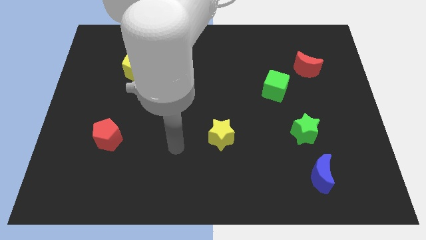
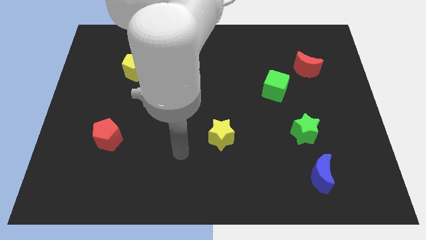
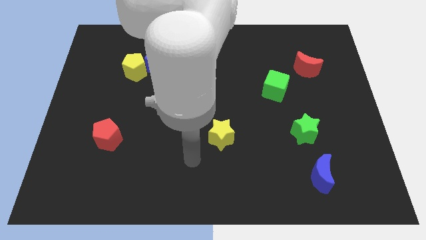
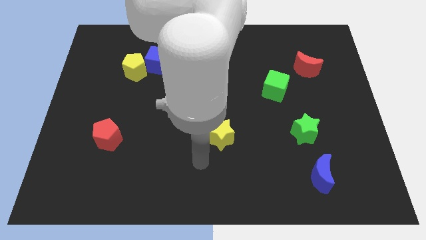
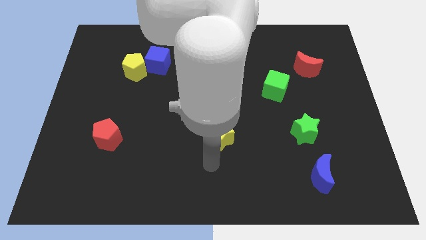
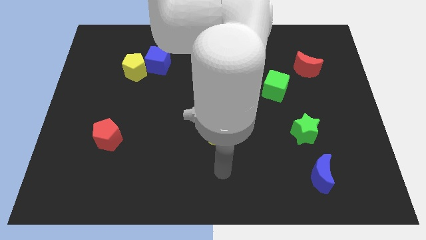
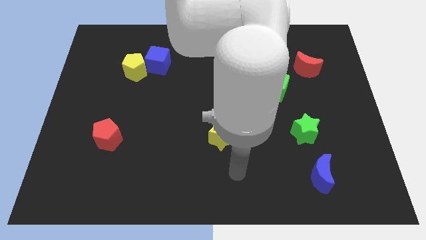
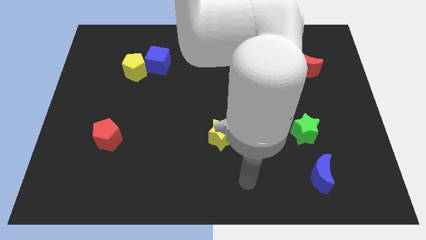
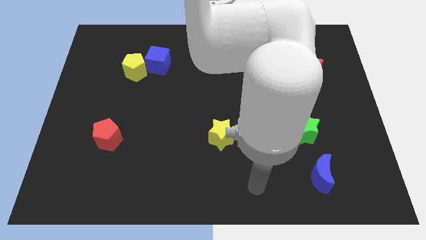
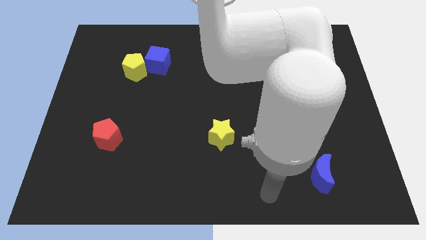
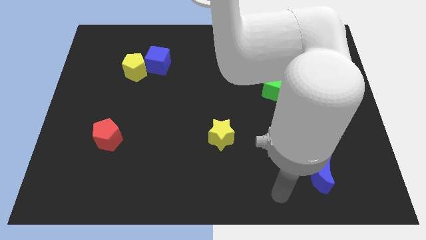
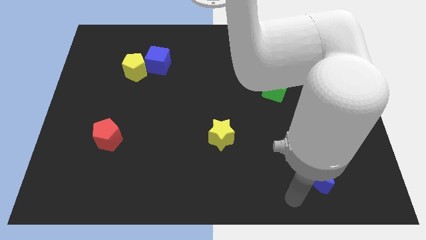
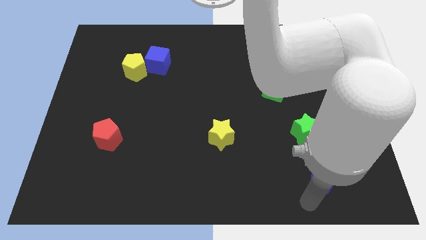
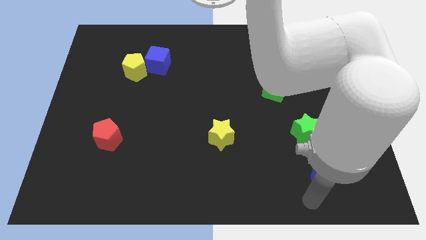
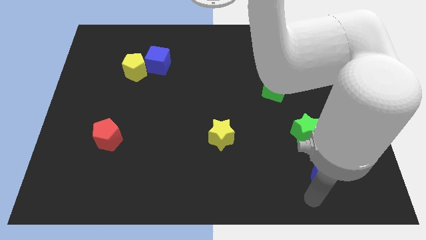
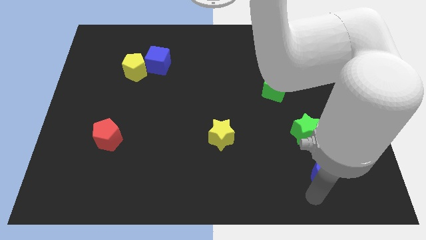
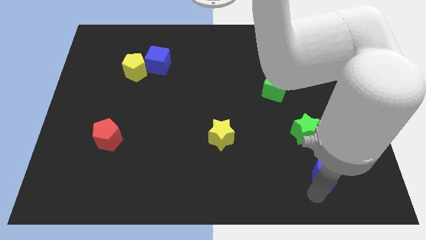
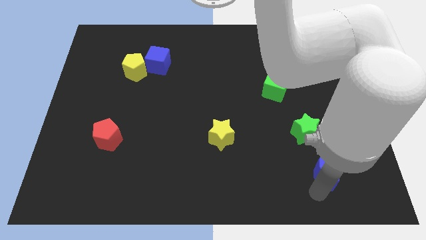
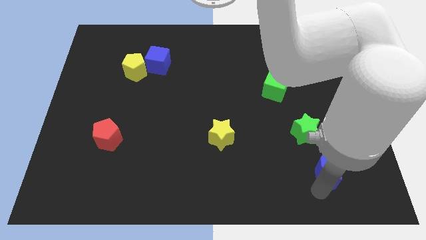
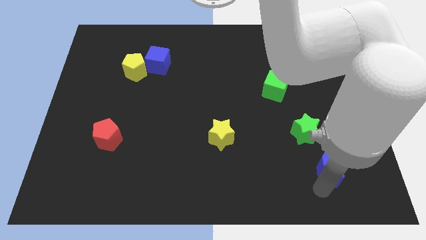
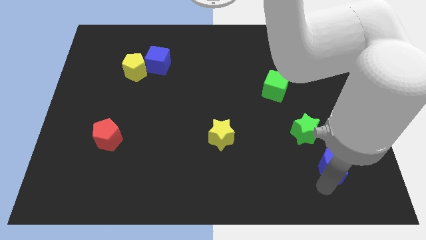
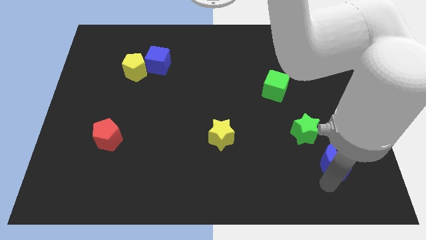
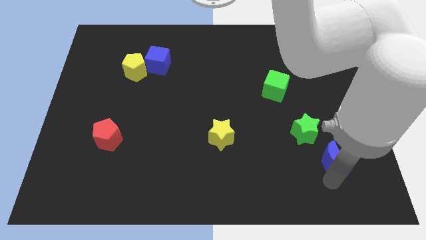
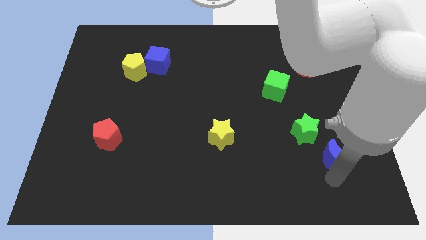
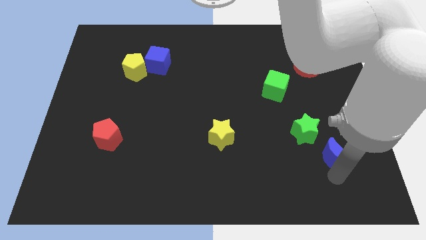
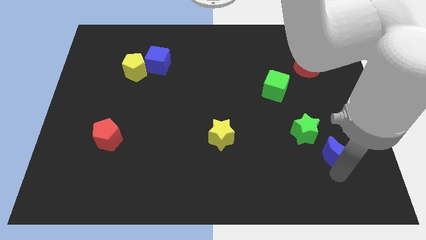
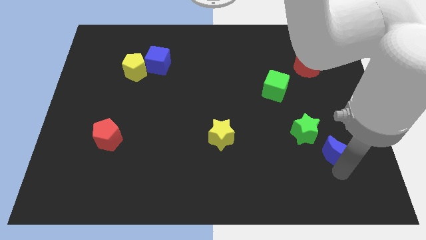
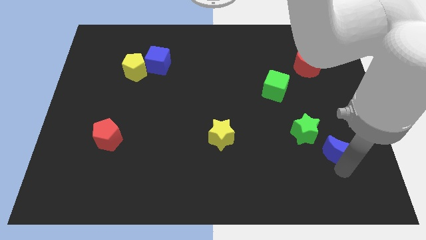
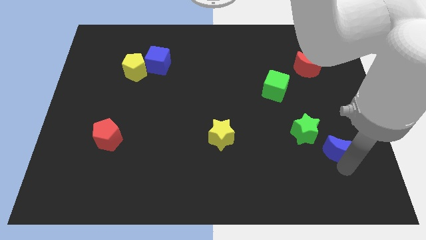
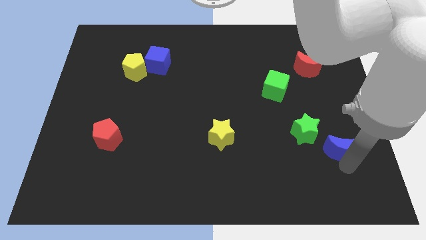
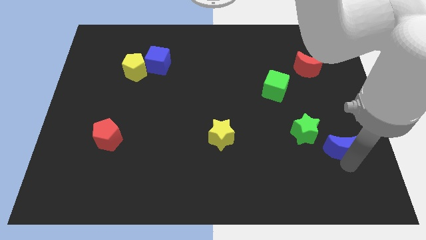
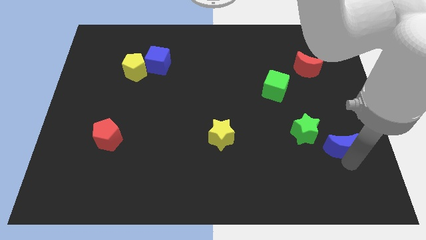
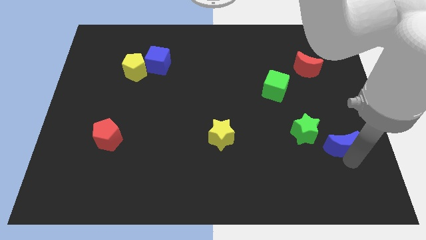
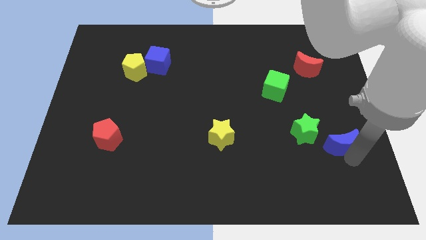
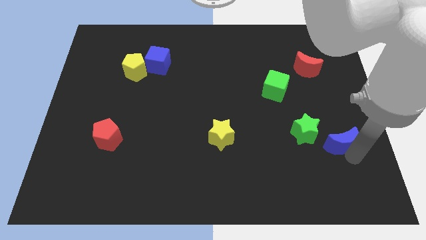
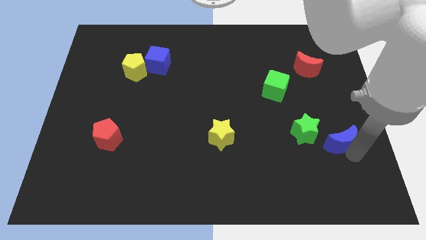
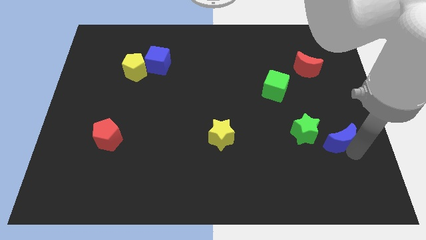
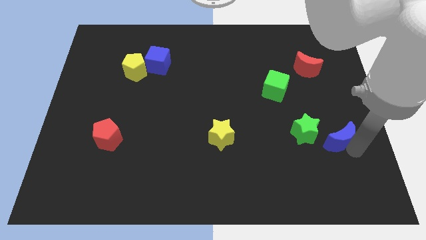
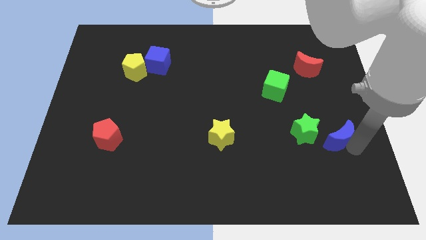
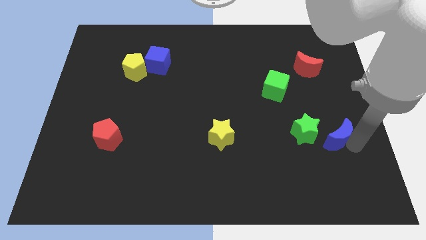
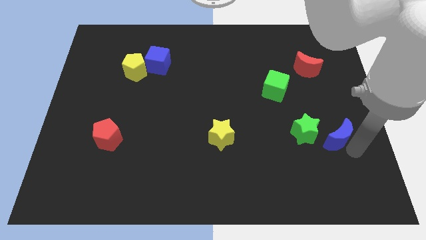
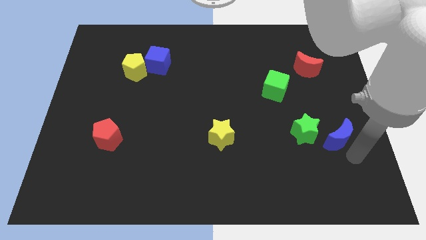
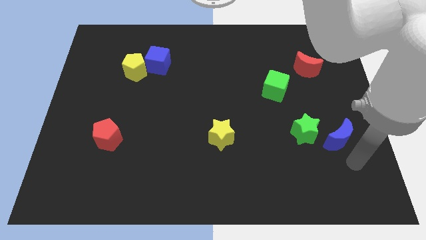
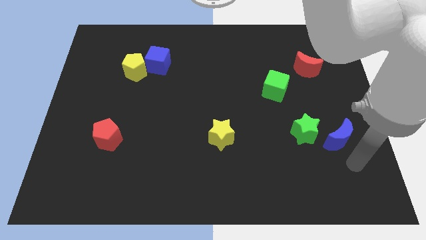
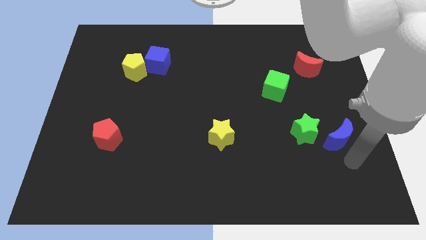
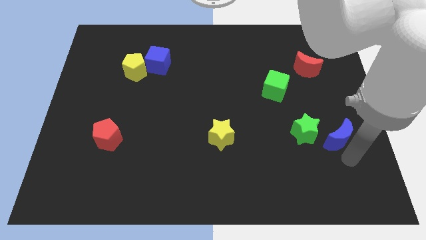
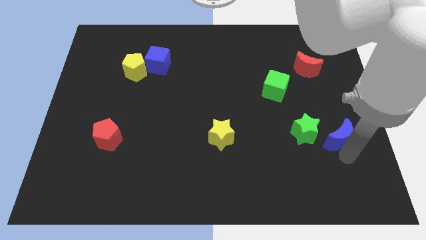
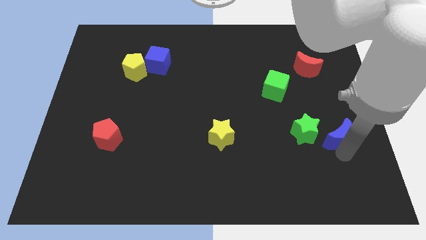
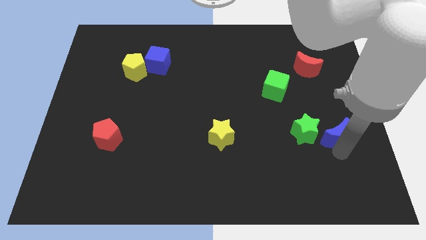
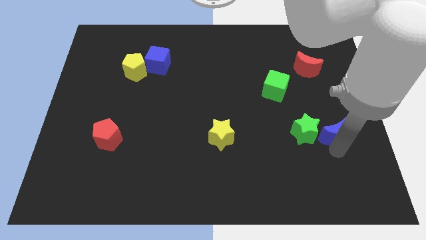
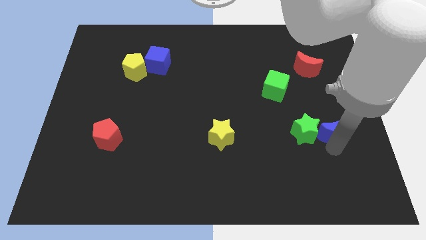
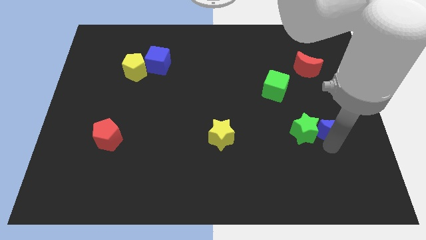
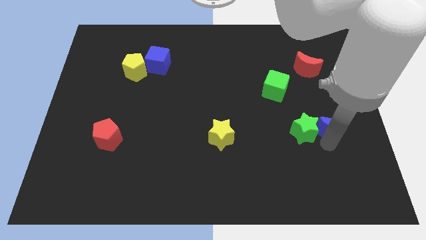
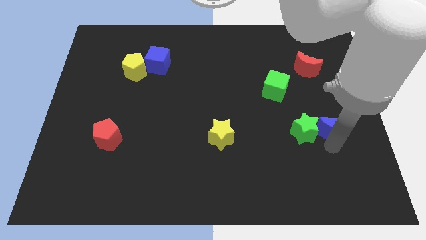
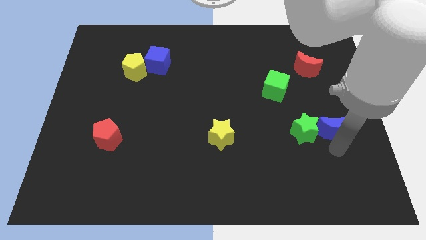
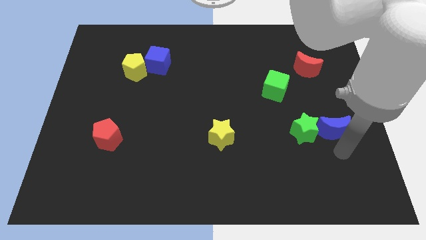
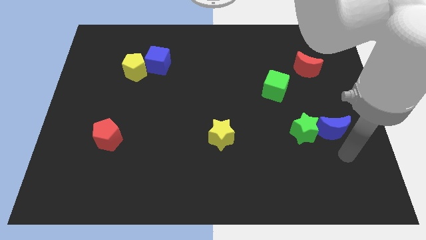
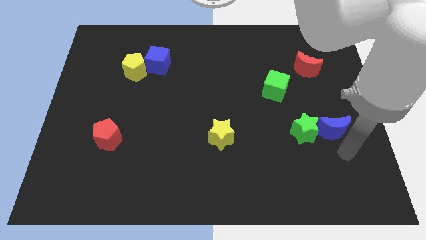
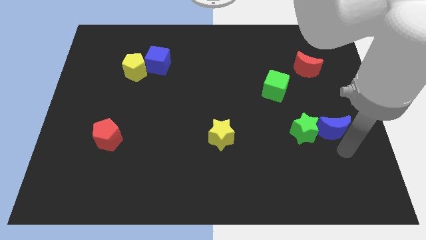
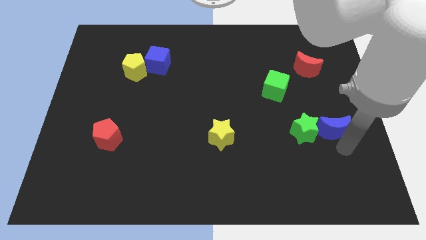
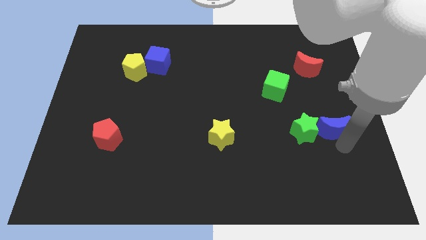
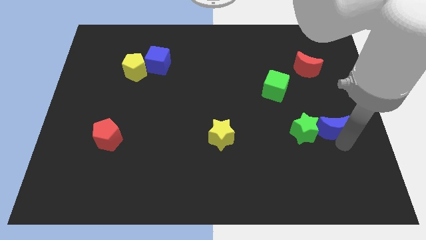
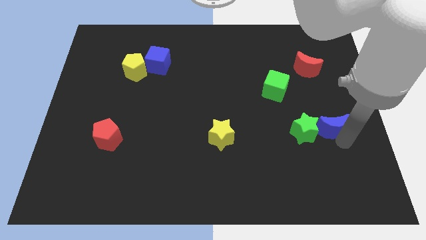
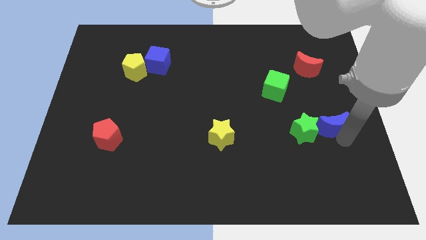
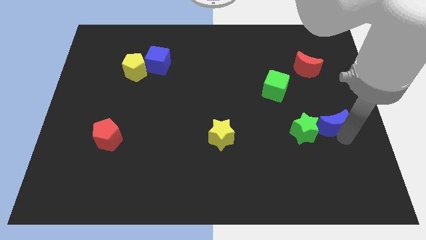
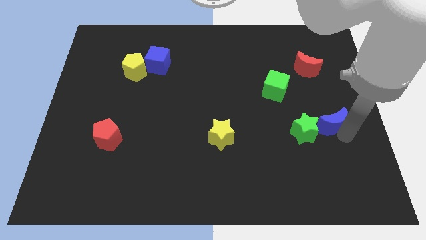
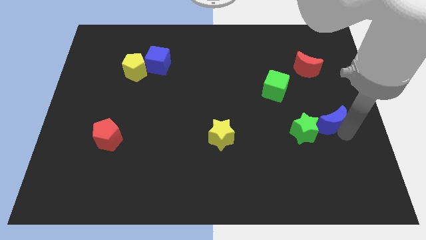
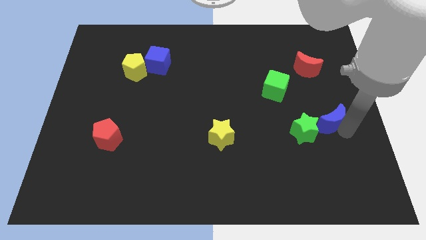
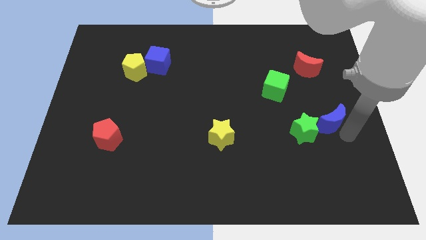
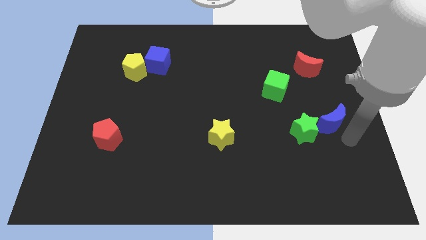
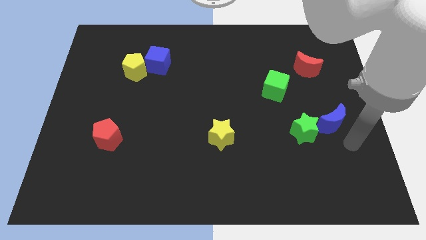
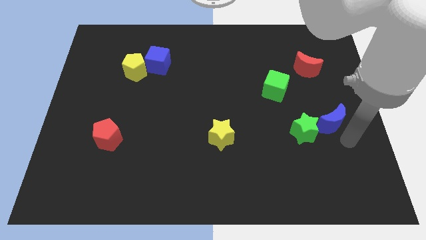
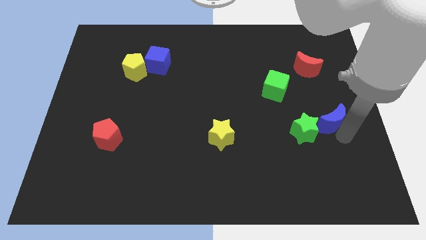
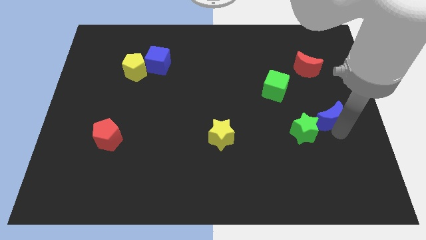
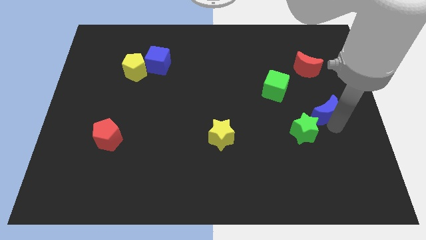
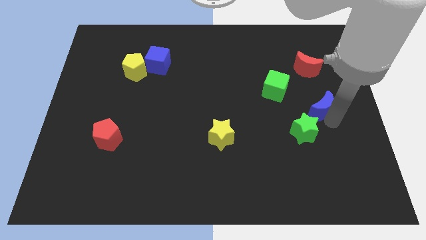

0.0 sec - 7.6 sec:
put the blue moon to the top side of the green star
